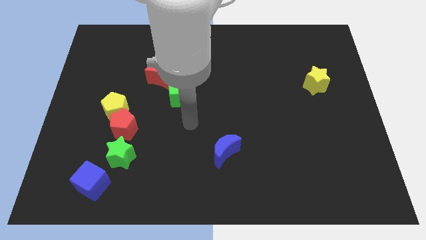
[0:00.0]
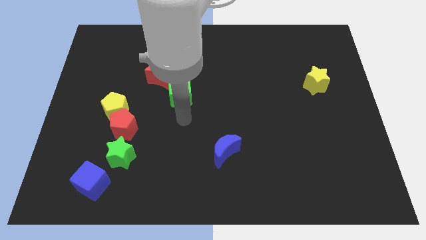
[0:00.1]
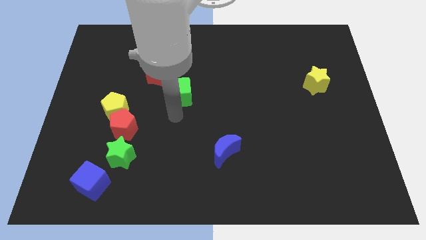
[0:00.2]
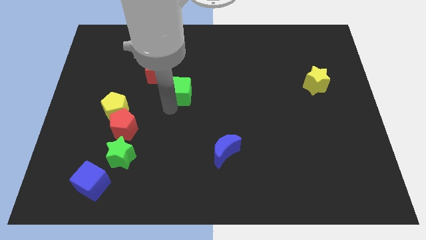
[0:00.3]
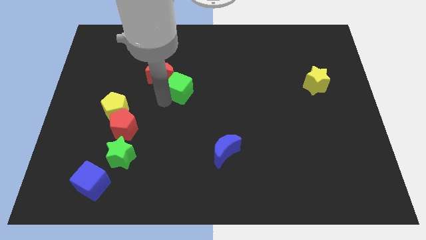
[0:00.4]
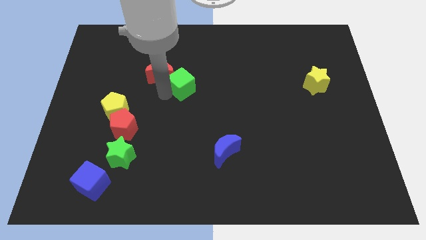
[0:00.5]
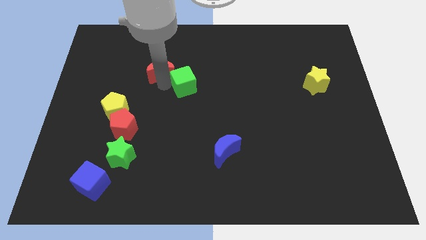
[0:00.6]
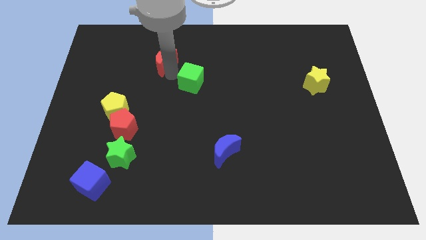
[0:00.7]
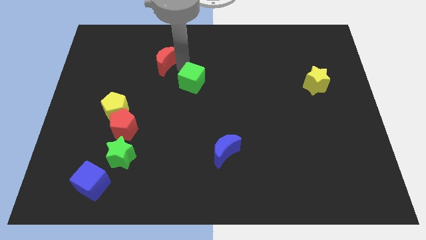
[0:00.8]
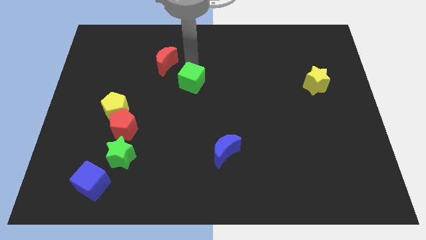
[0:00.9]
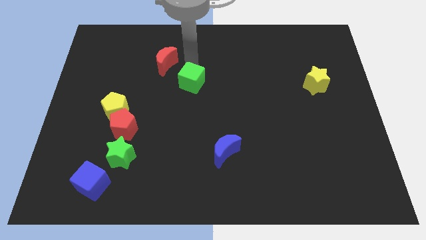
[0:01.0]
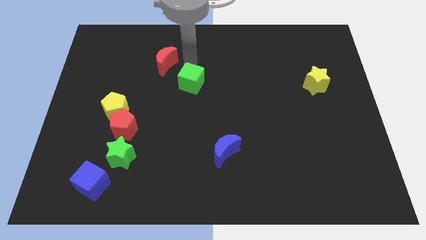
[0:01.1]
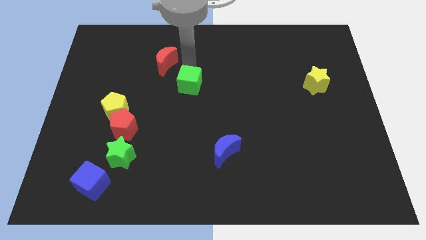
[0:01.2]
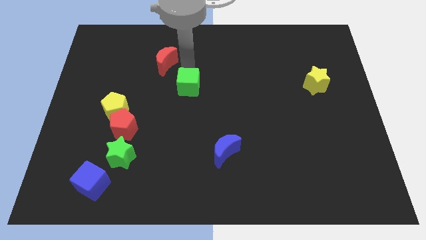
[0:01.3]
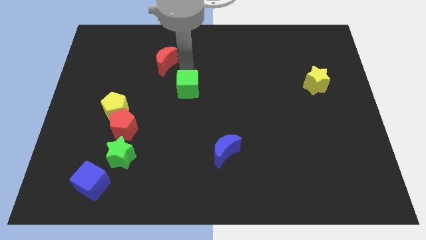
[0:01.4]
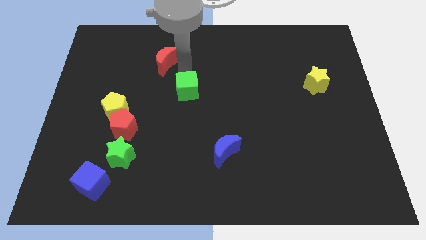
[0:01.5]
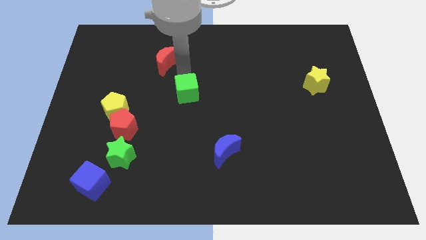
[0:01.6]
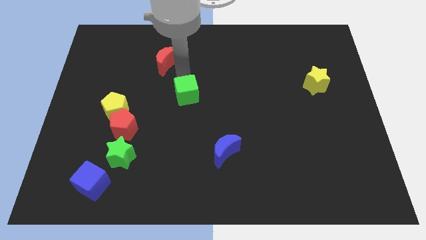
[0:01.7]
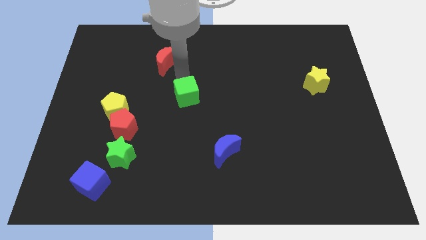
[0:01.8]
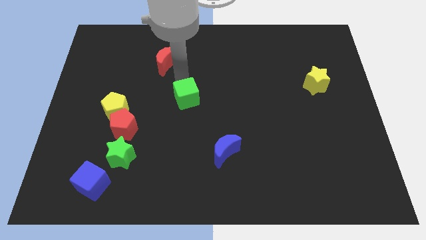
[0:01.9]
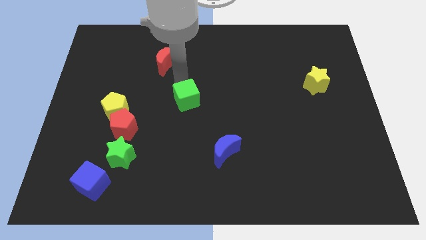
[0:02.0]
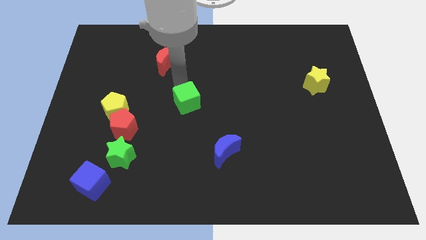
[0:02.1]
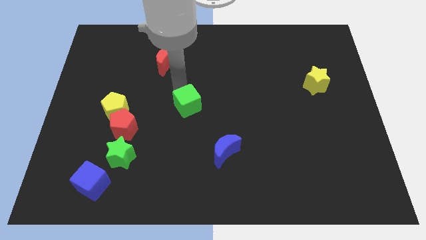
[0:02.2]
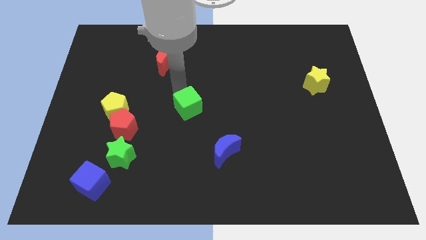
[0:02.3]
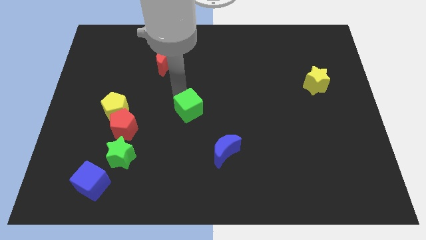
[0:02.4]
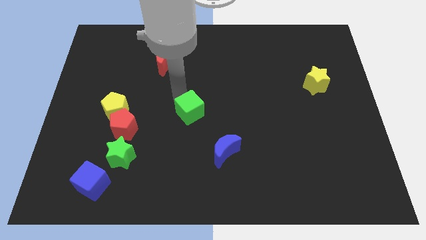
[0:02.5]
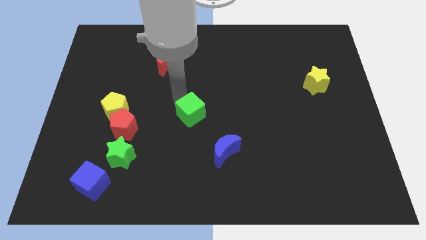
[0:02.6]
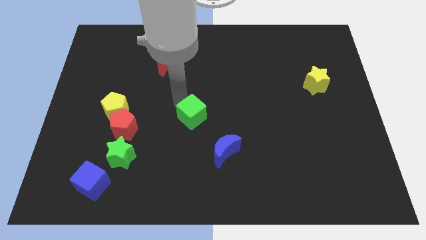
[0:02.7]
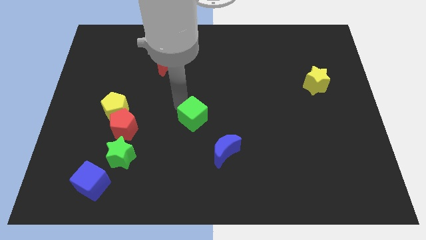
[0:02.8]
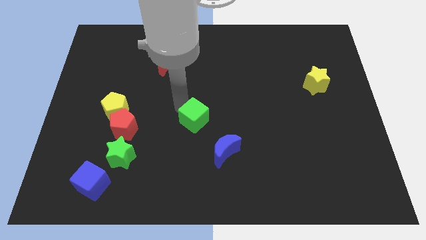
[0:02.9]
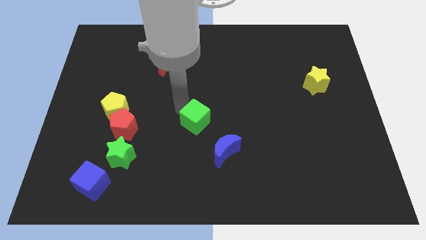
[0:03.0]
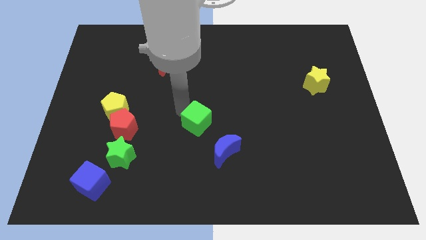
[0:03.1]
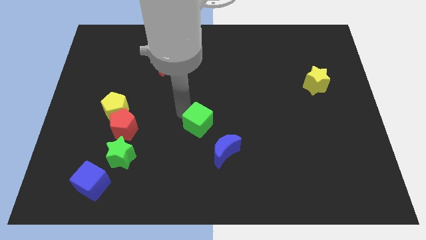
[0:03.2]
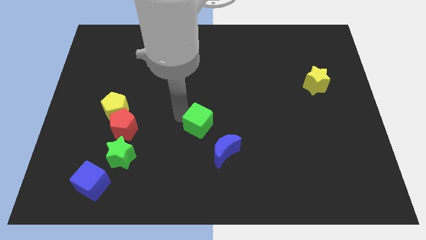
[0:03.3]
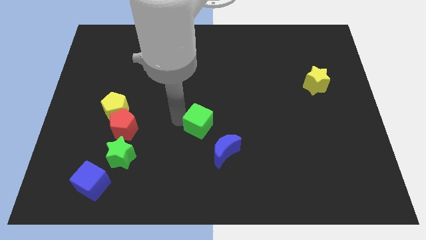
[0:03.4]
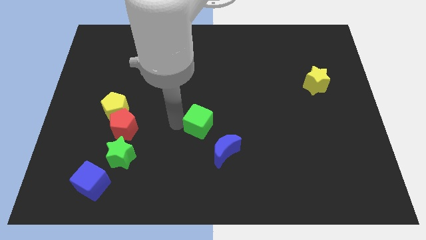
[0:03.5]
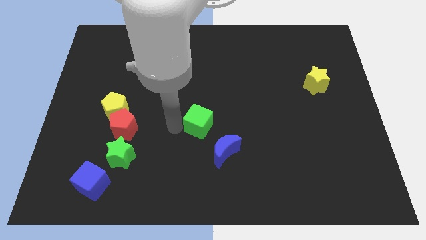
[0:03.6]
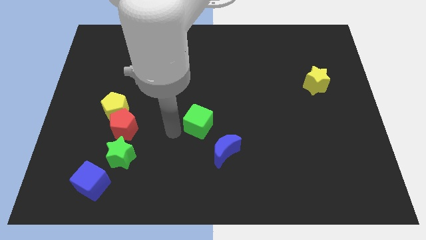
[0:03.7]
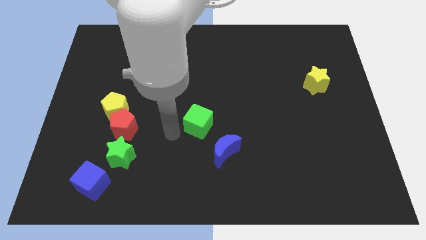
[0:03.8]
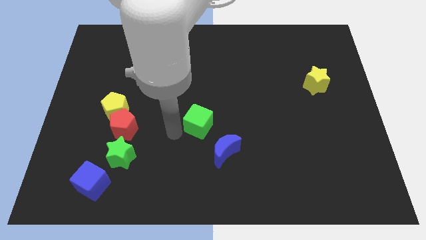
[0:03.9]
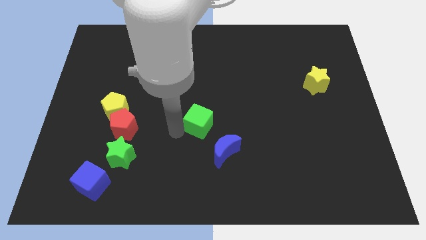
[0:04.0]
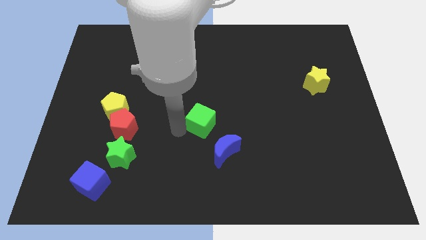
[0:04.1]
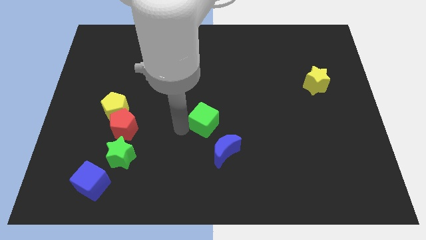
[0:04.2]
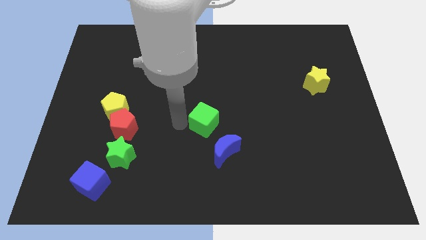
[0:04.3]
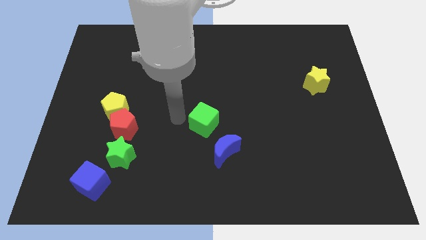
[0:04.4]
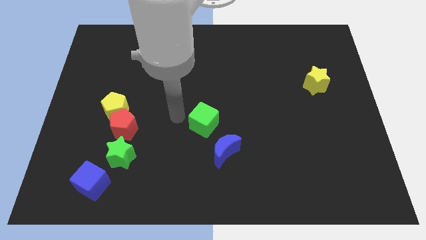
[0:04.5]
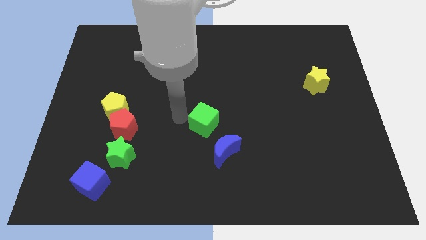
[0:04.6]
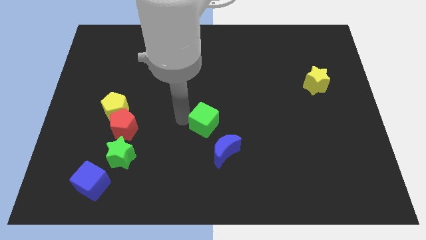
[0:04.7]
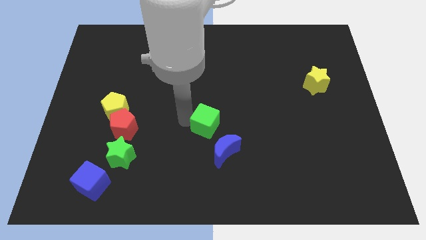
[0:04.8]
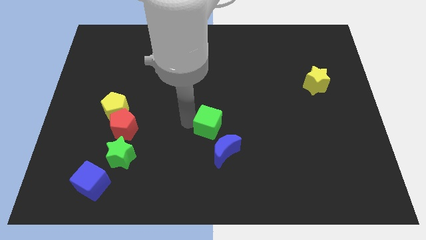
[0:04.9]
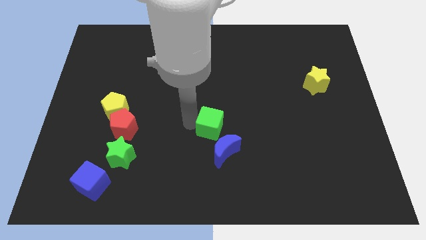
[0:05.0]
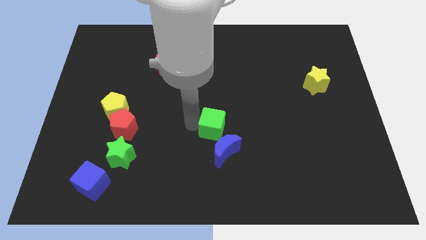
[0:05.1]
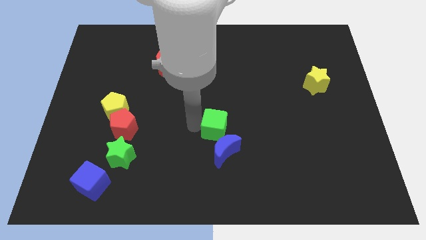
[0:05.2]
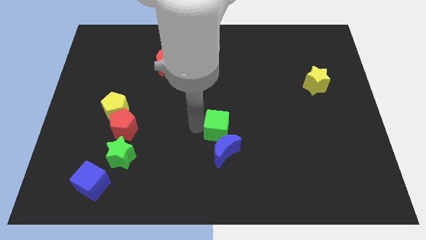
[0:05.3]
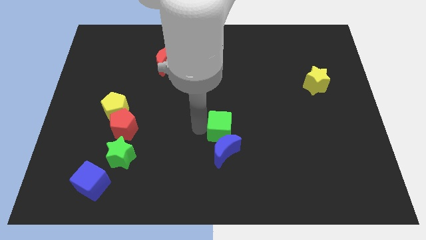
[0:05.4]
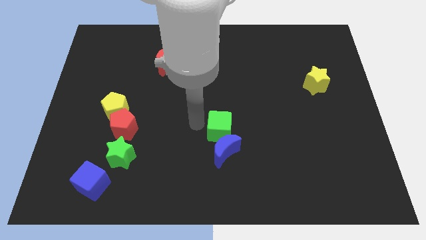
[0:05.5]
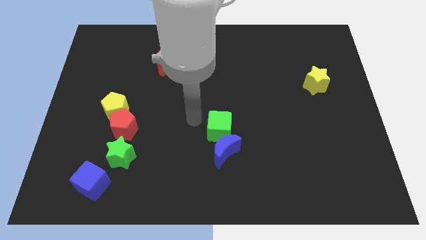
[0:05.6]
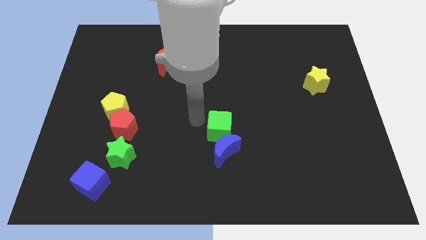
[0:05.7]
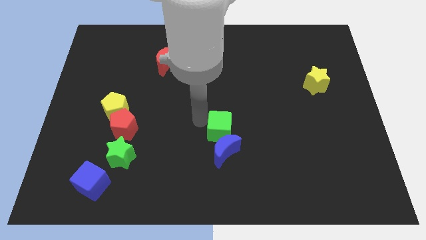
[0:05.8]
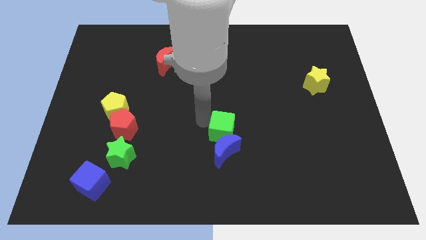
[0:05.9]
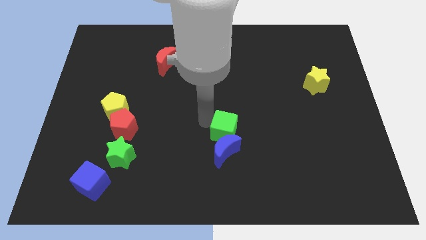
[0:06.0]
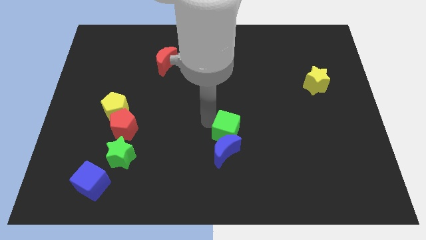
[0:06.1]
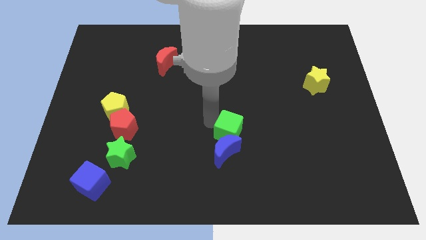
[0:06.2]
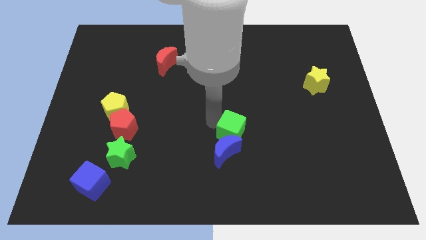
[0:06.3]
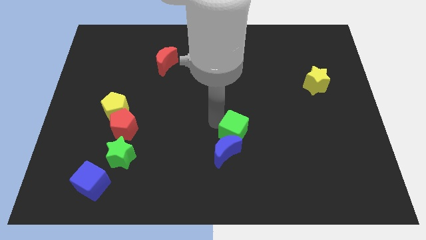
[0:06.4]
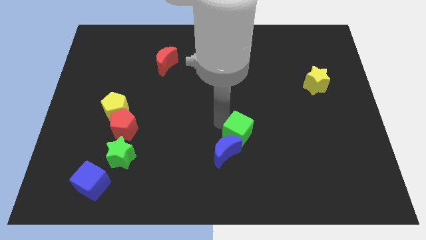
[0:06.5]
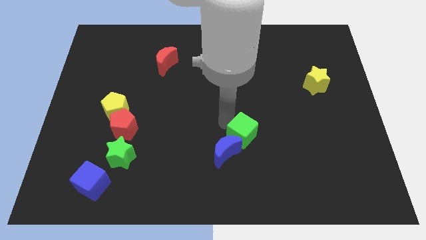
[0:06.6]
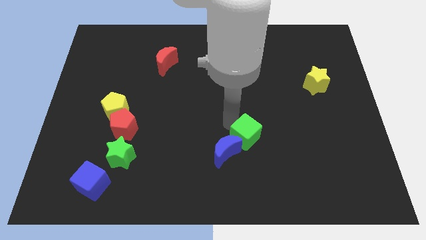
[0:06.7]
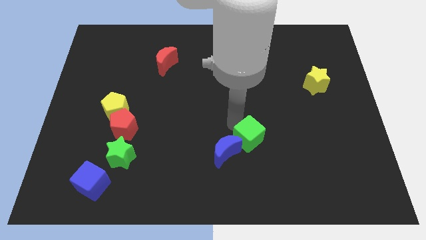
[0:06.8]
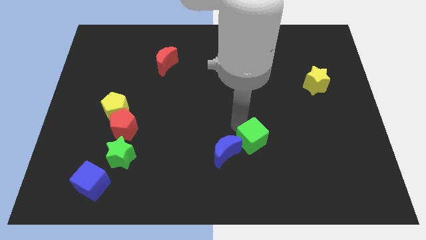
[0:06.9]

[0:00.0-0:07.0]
slide the green cube down and then right

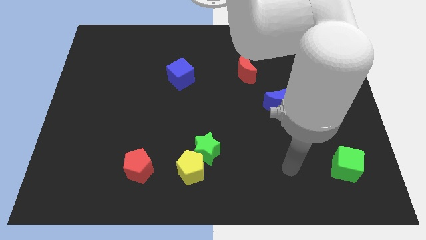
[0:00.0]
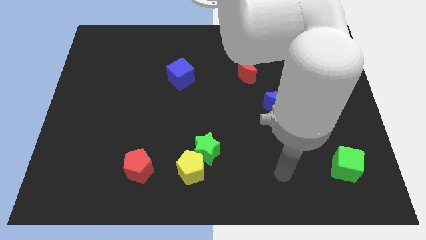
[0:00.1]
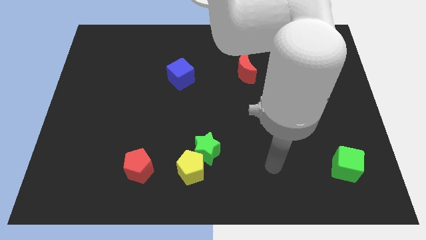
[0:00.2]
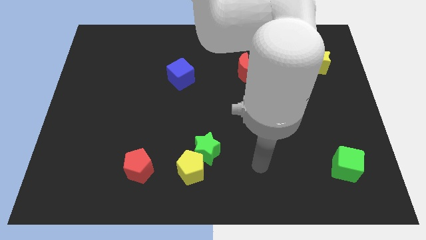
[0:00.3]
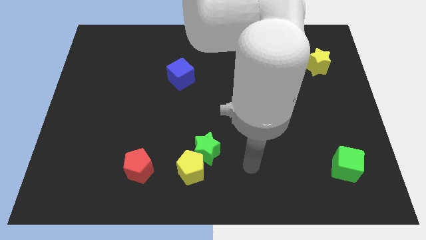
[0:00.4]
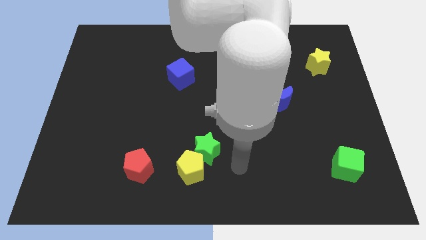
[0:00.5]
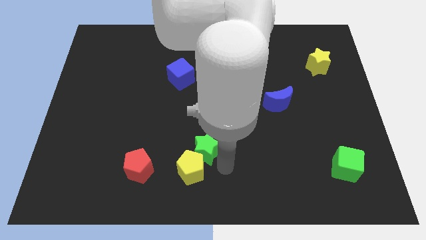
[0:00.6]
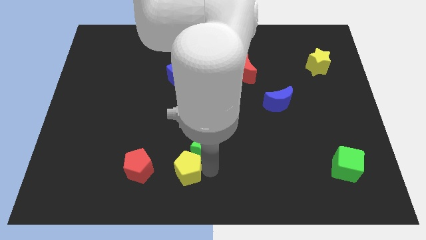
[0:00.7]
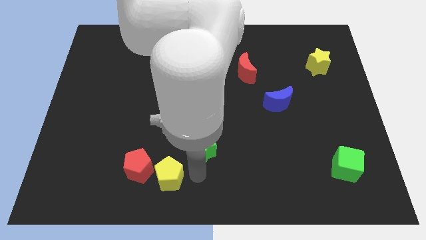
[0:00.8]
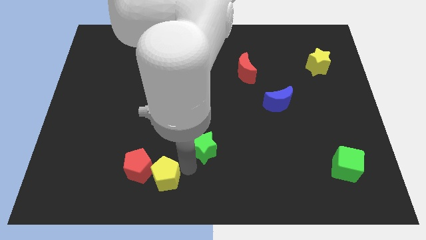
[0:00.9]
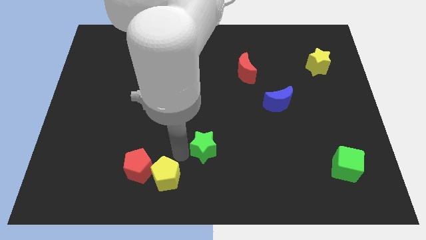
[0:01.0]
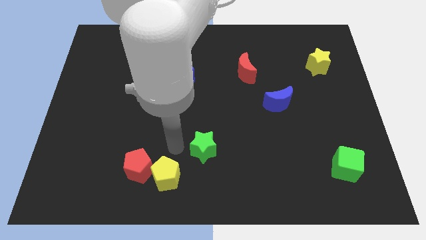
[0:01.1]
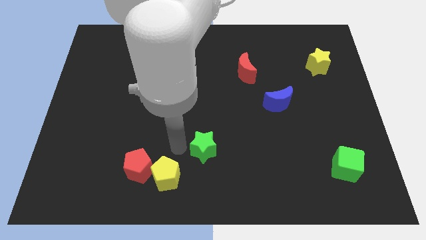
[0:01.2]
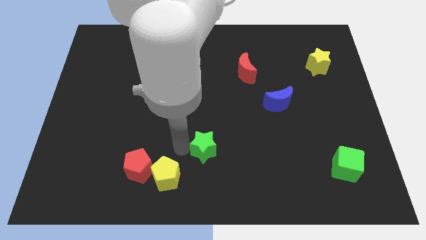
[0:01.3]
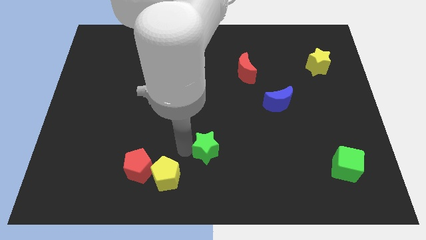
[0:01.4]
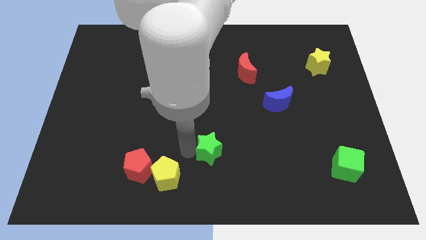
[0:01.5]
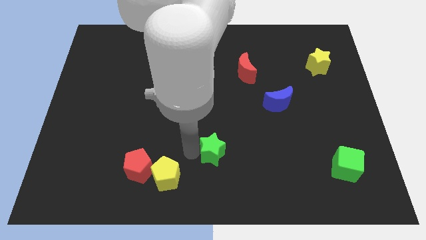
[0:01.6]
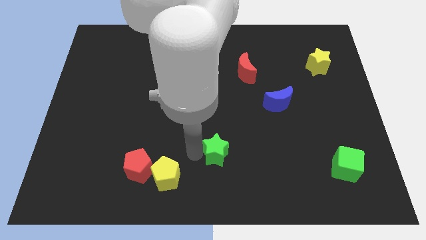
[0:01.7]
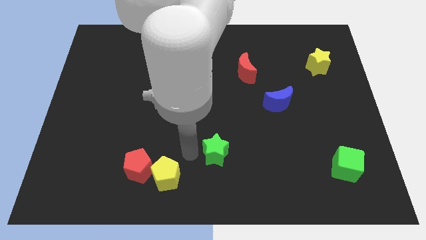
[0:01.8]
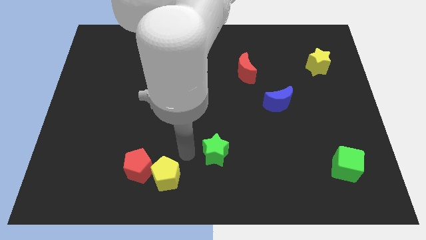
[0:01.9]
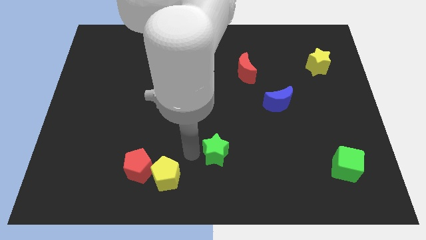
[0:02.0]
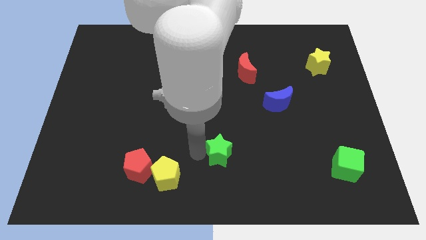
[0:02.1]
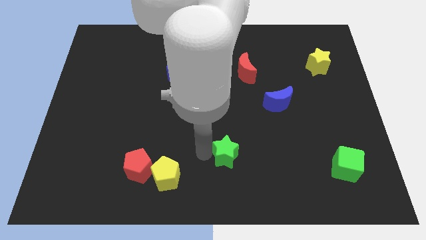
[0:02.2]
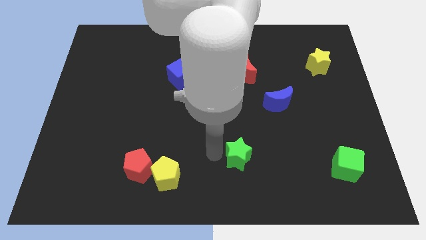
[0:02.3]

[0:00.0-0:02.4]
slide the green star right a little bit
